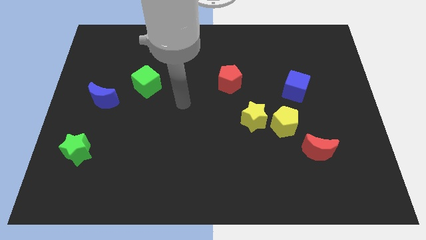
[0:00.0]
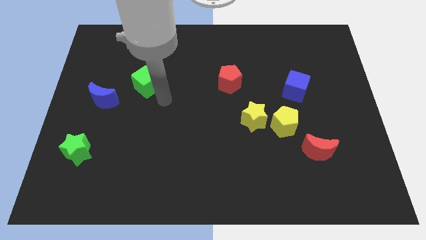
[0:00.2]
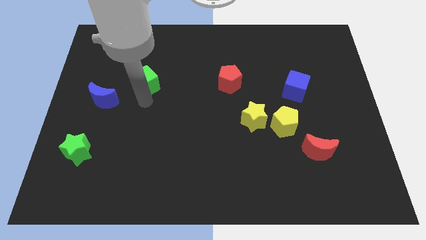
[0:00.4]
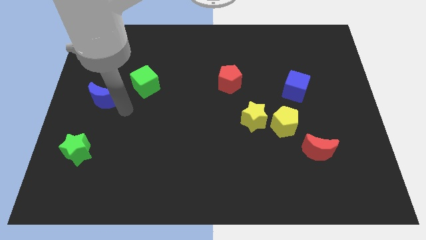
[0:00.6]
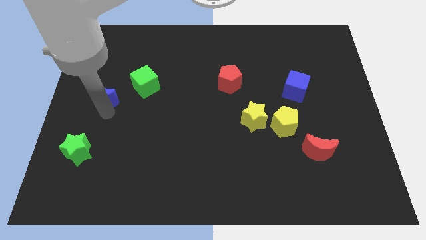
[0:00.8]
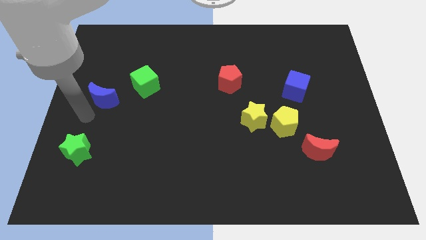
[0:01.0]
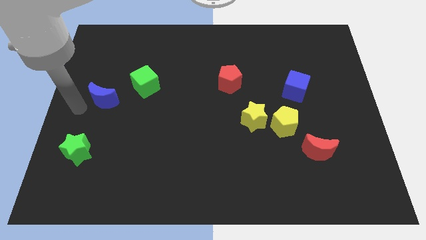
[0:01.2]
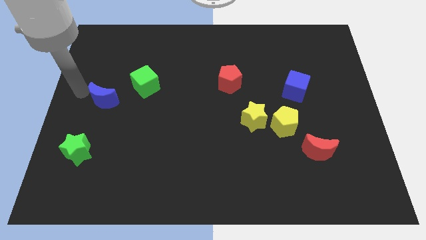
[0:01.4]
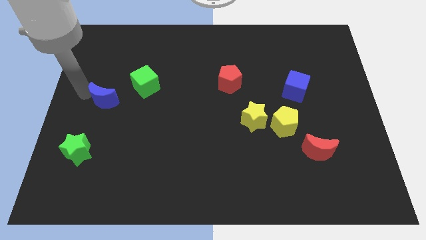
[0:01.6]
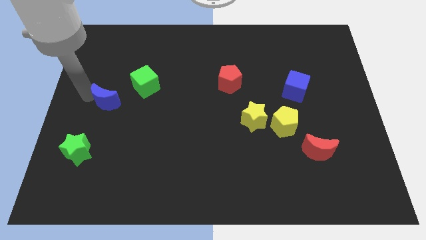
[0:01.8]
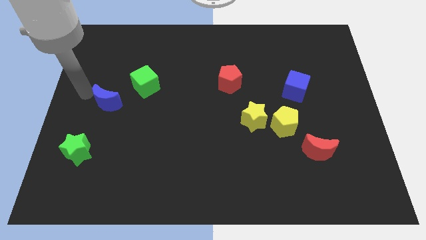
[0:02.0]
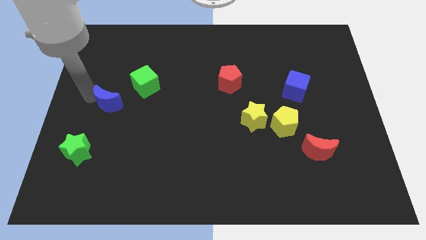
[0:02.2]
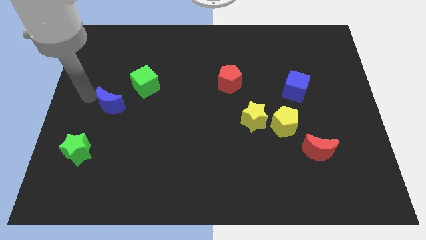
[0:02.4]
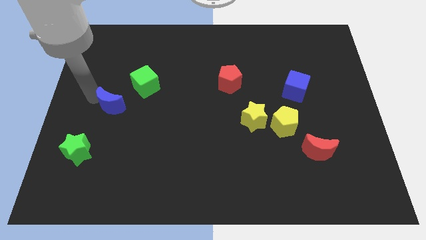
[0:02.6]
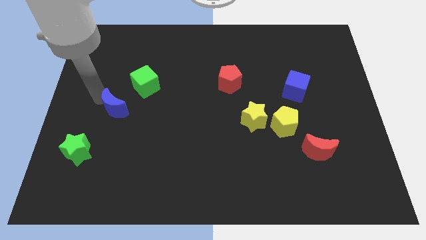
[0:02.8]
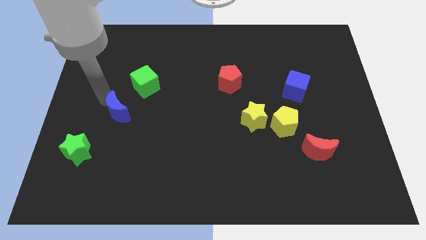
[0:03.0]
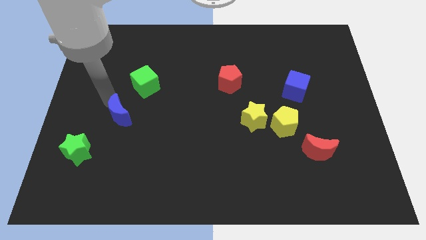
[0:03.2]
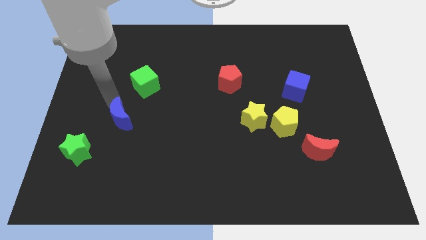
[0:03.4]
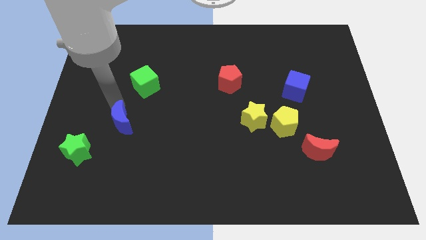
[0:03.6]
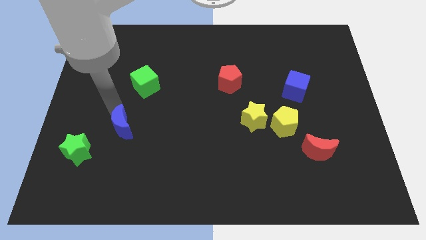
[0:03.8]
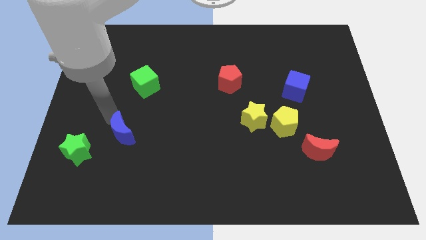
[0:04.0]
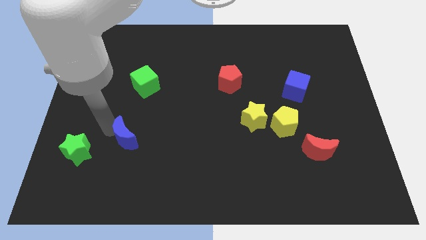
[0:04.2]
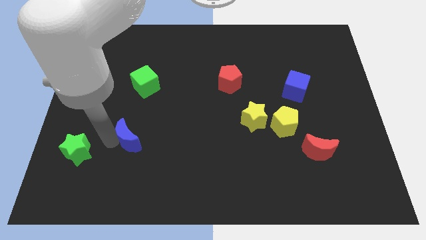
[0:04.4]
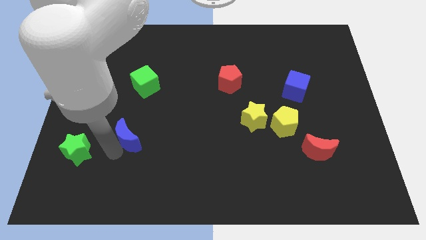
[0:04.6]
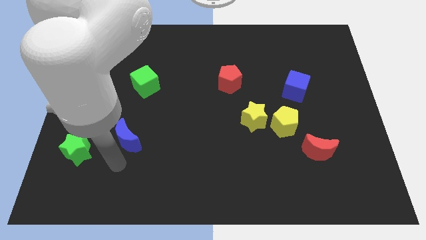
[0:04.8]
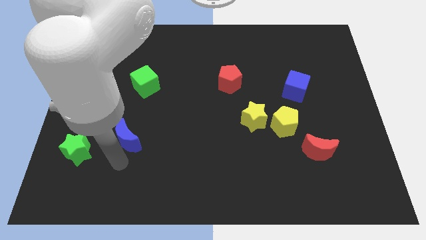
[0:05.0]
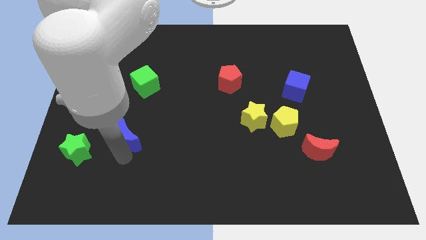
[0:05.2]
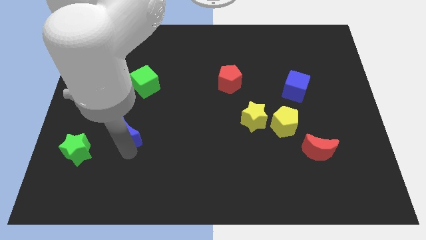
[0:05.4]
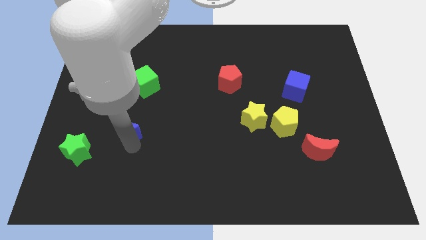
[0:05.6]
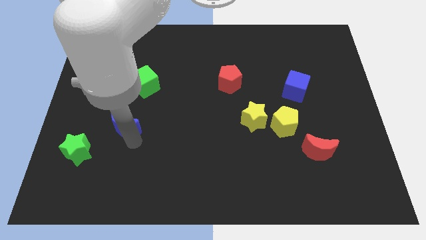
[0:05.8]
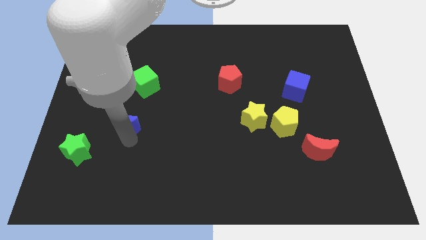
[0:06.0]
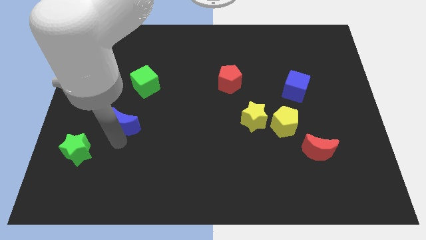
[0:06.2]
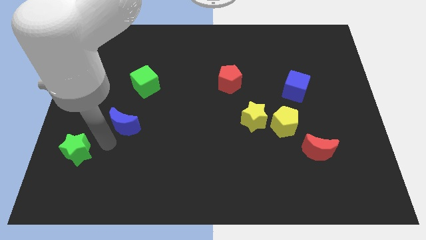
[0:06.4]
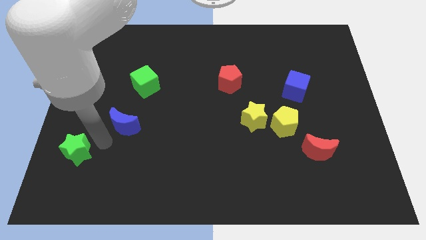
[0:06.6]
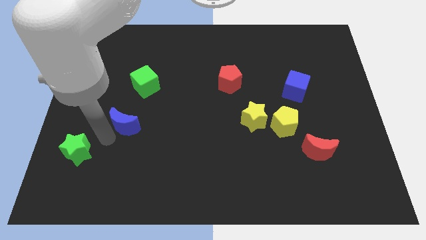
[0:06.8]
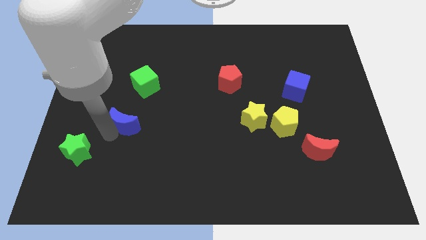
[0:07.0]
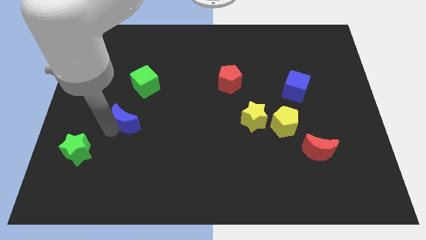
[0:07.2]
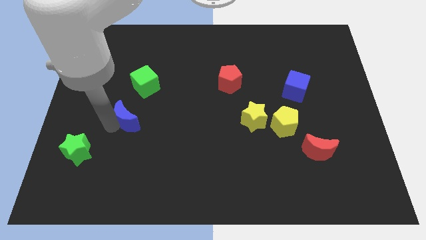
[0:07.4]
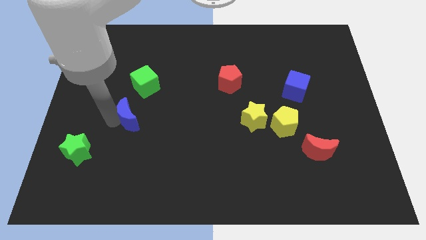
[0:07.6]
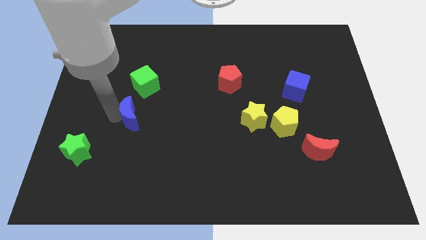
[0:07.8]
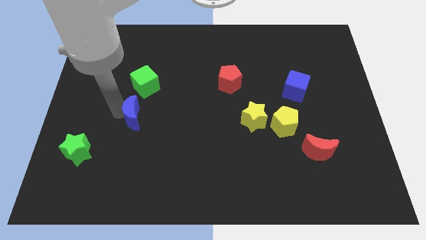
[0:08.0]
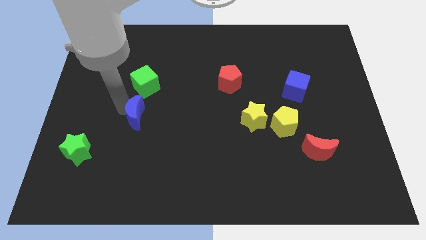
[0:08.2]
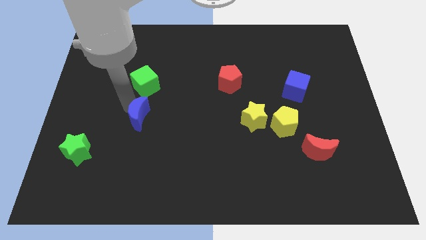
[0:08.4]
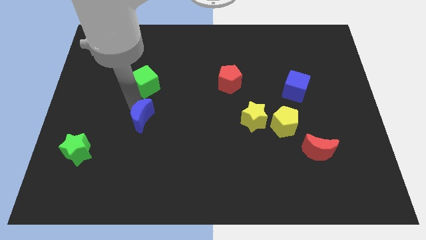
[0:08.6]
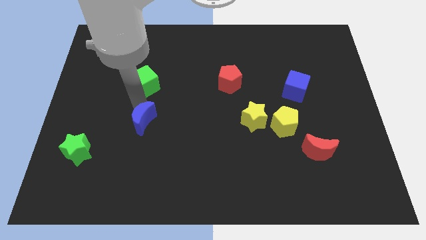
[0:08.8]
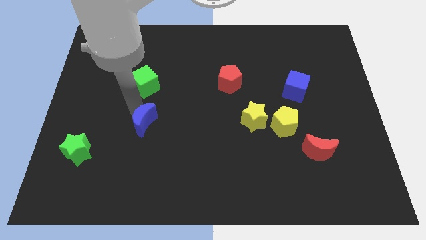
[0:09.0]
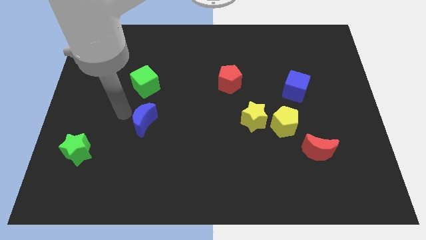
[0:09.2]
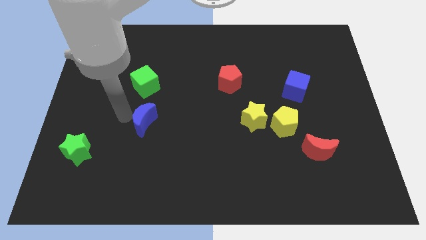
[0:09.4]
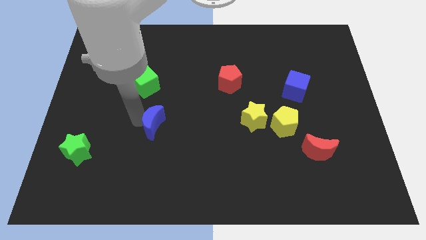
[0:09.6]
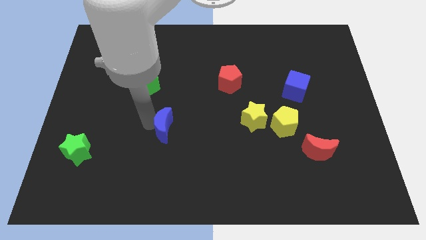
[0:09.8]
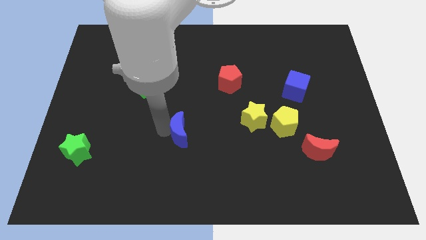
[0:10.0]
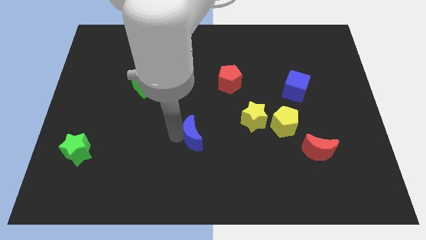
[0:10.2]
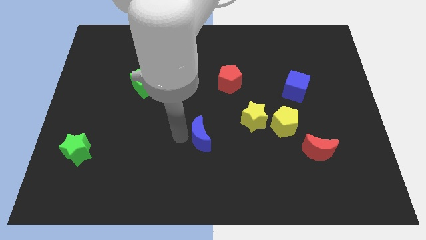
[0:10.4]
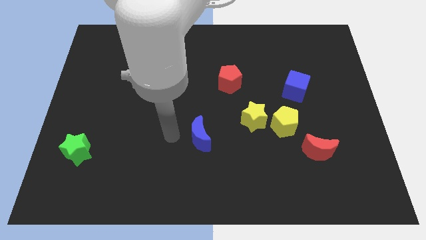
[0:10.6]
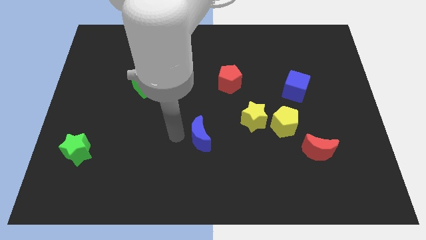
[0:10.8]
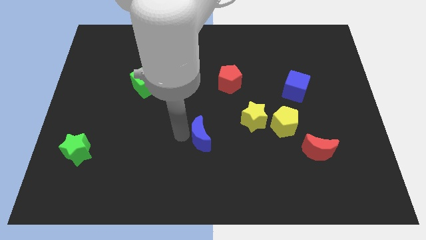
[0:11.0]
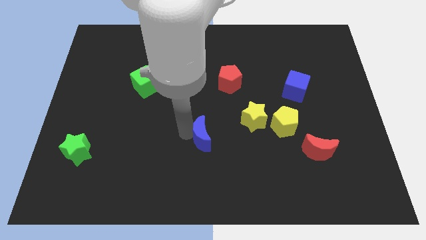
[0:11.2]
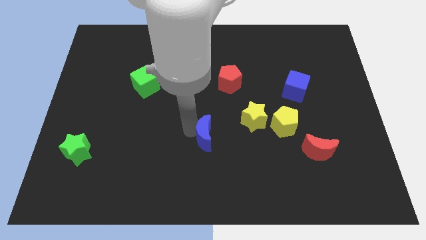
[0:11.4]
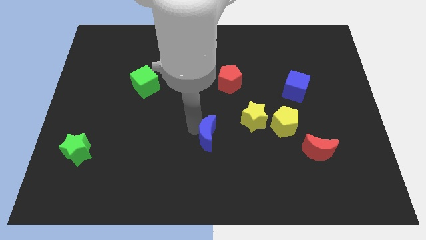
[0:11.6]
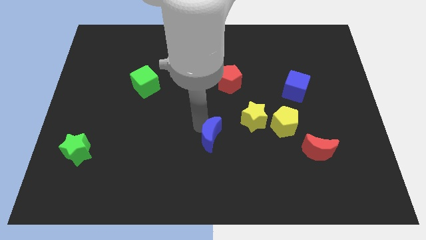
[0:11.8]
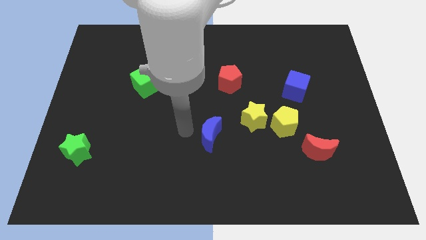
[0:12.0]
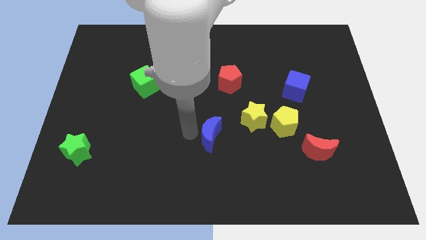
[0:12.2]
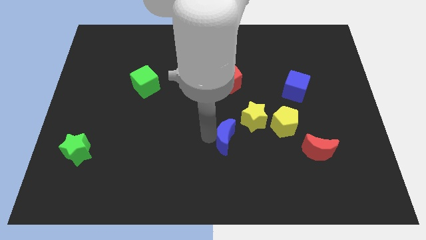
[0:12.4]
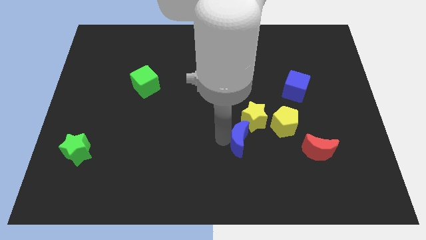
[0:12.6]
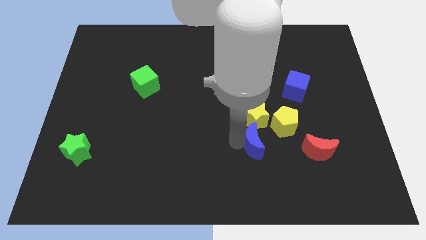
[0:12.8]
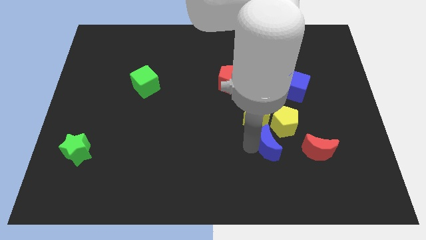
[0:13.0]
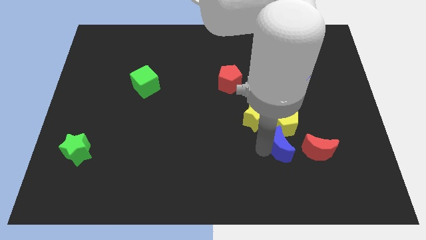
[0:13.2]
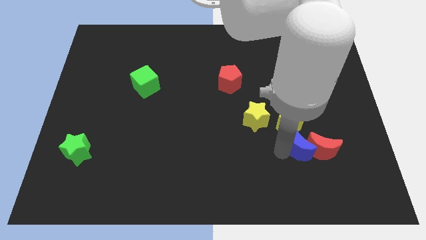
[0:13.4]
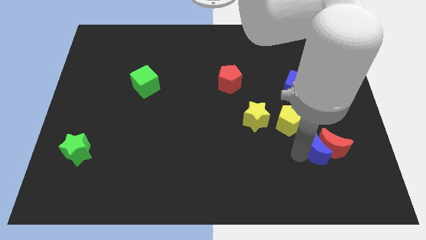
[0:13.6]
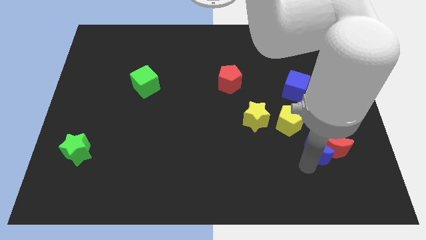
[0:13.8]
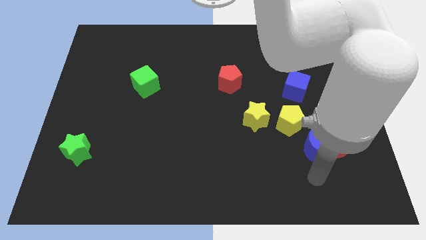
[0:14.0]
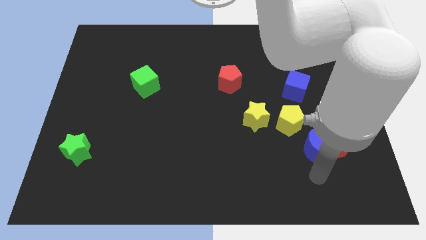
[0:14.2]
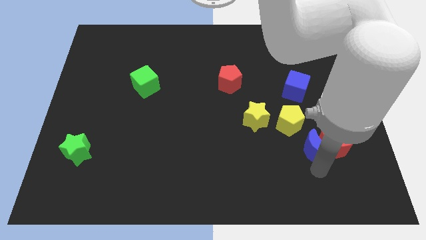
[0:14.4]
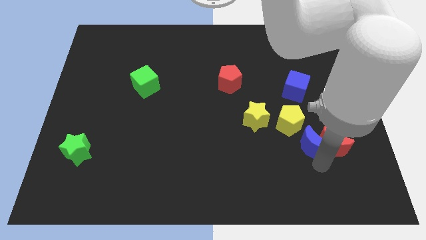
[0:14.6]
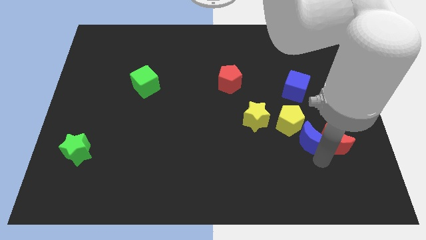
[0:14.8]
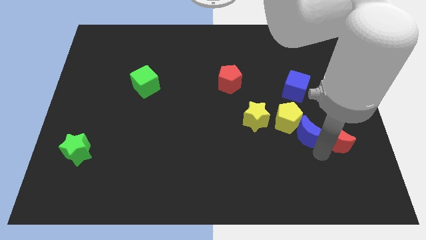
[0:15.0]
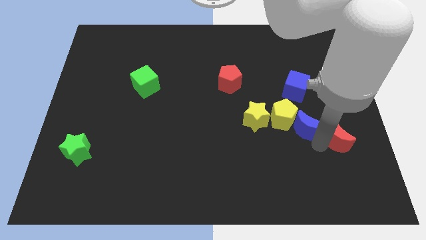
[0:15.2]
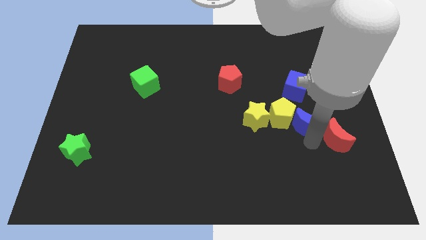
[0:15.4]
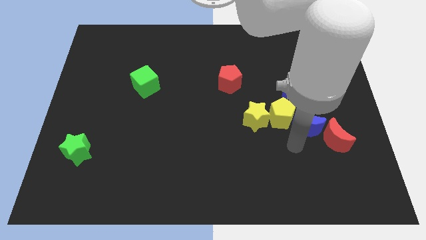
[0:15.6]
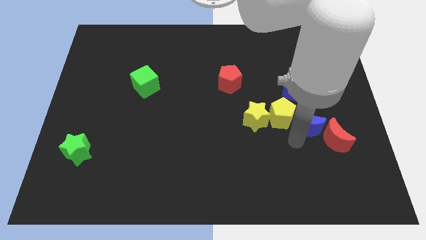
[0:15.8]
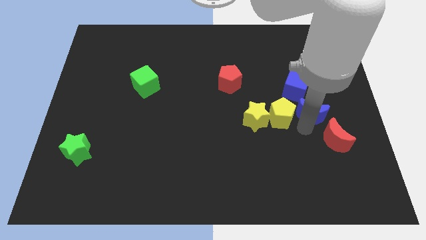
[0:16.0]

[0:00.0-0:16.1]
push the blue moon above the red moon
